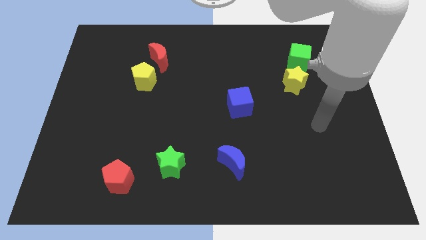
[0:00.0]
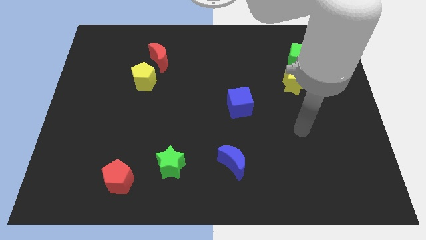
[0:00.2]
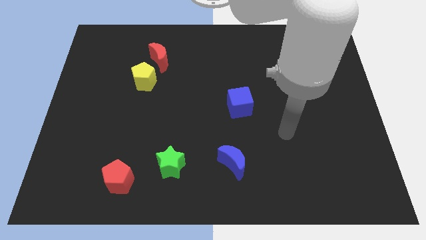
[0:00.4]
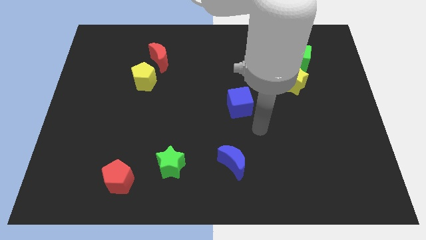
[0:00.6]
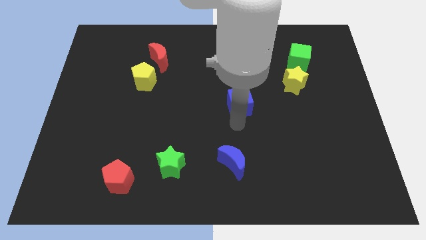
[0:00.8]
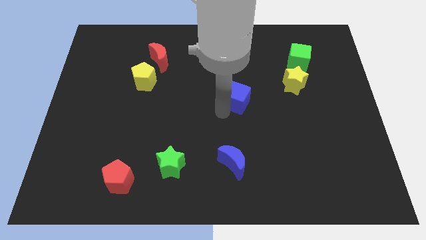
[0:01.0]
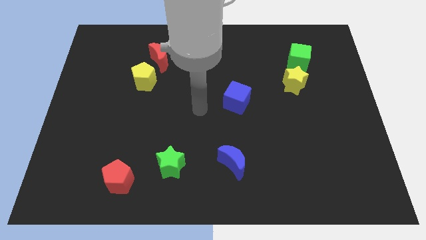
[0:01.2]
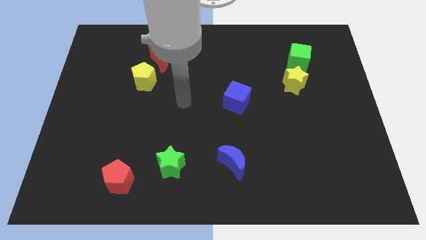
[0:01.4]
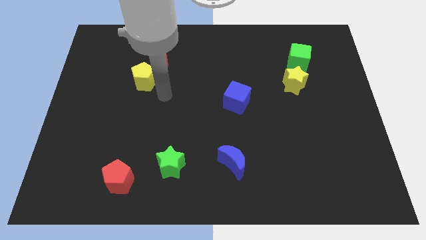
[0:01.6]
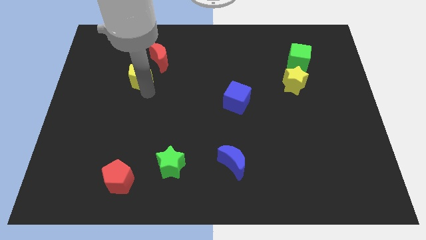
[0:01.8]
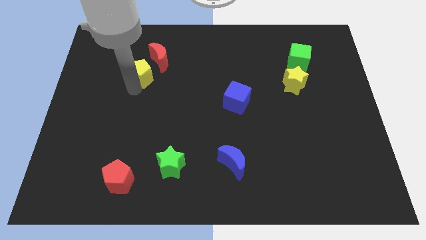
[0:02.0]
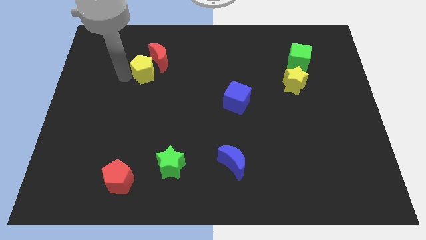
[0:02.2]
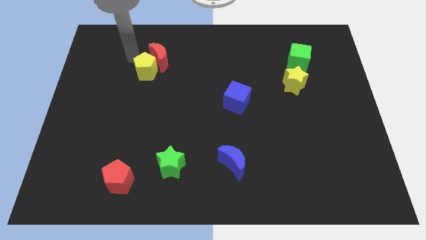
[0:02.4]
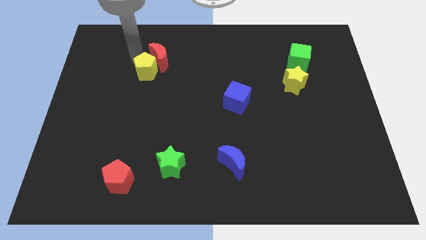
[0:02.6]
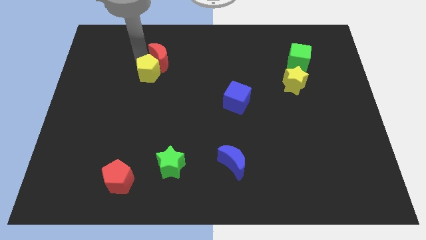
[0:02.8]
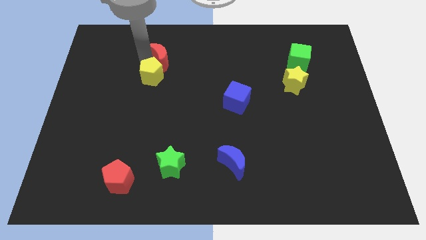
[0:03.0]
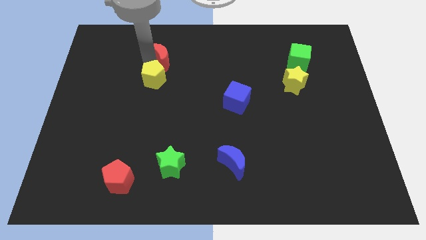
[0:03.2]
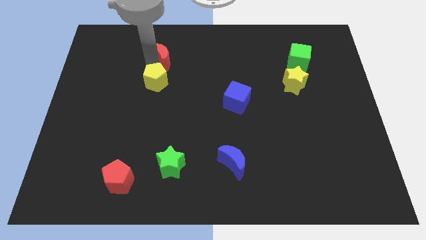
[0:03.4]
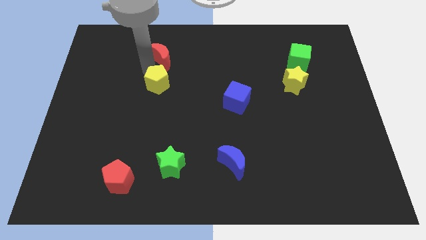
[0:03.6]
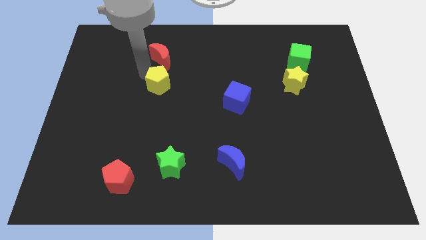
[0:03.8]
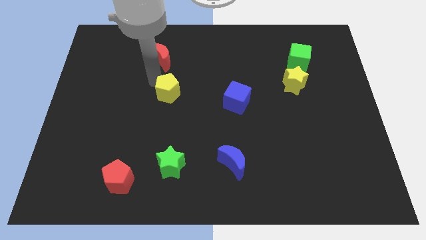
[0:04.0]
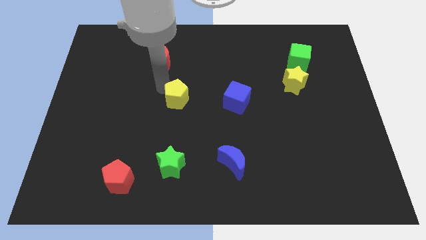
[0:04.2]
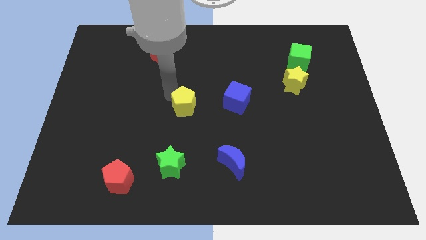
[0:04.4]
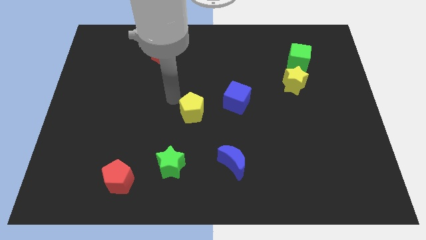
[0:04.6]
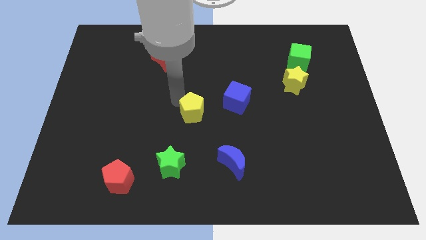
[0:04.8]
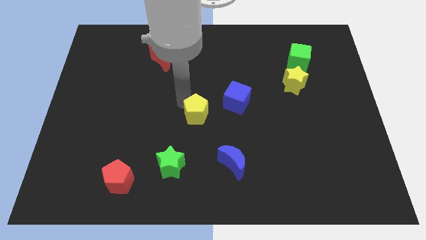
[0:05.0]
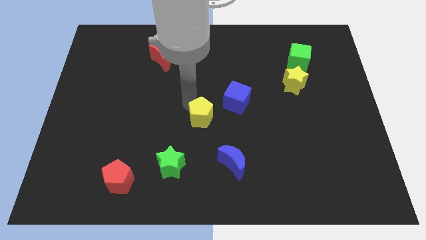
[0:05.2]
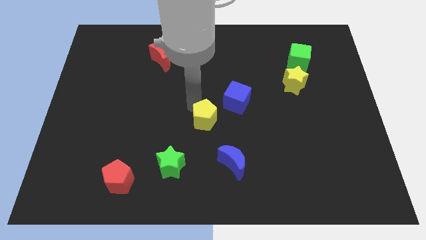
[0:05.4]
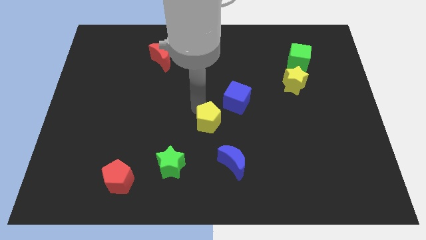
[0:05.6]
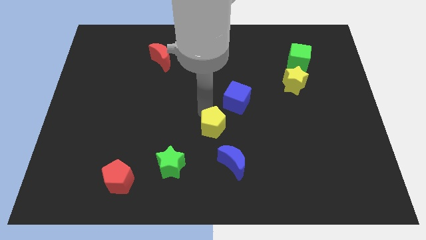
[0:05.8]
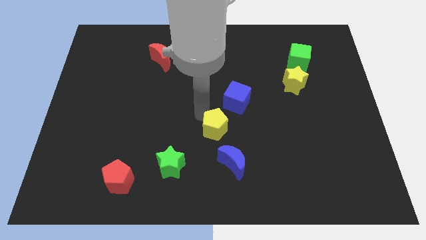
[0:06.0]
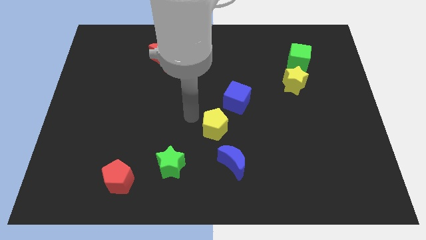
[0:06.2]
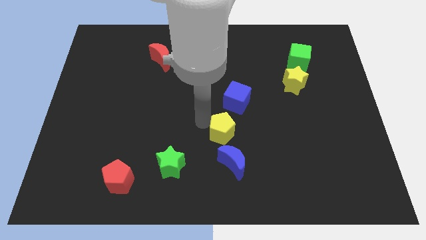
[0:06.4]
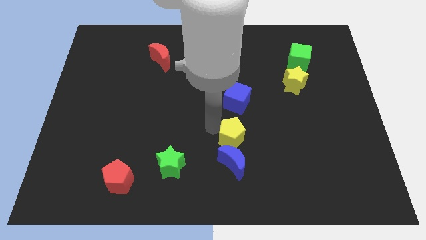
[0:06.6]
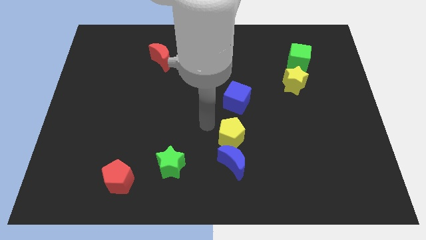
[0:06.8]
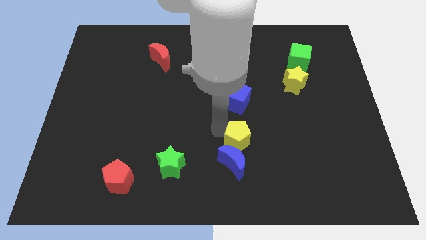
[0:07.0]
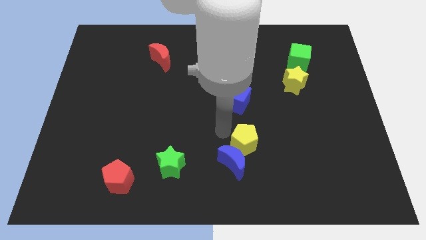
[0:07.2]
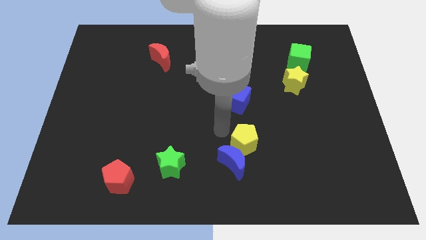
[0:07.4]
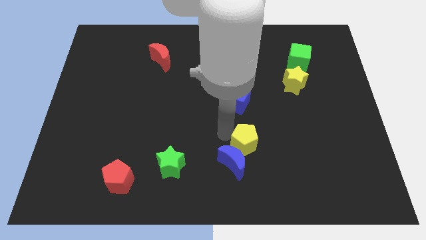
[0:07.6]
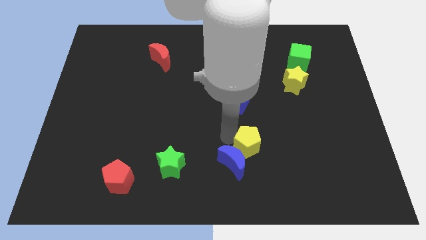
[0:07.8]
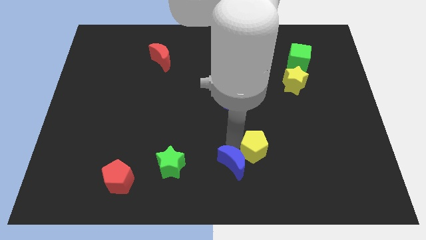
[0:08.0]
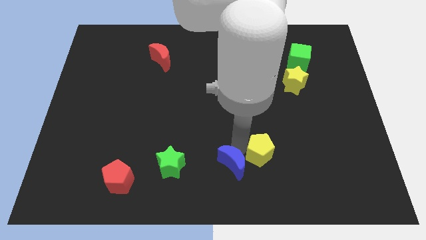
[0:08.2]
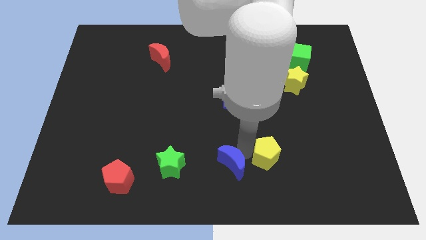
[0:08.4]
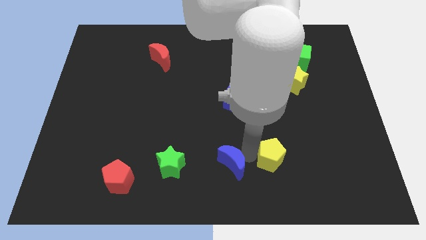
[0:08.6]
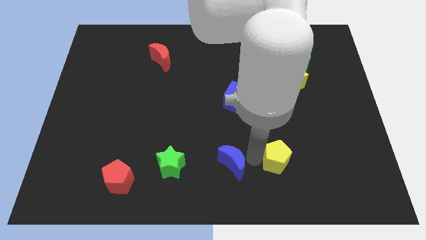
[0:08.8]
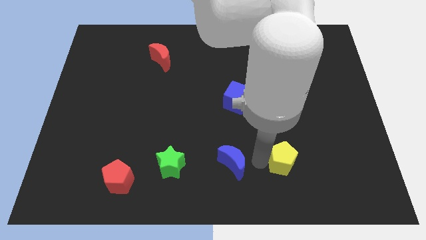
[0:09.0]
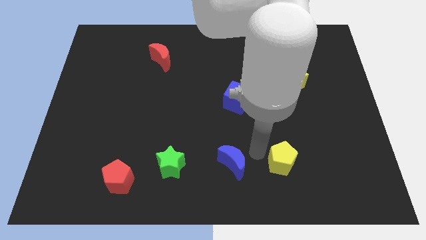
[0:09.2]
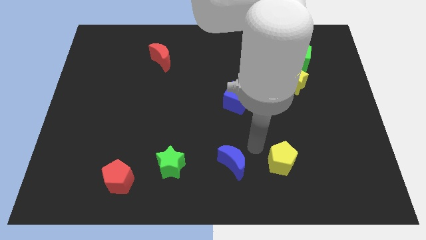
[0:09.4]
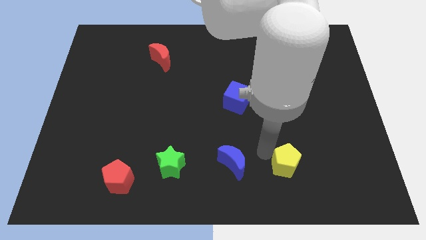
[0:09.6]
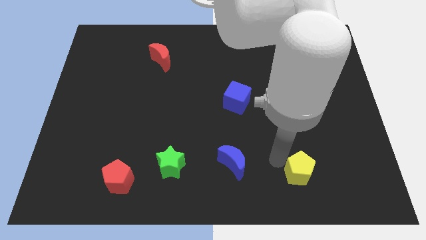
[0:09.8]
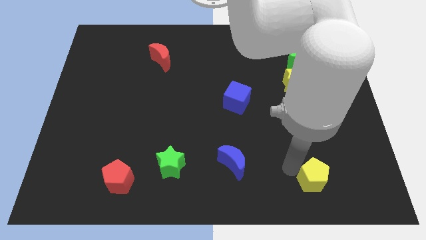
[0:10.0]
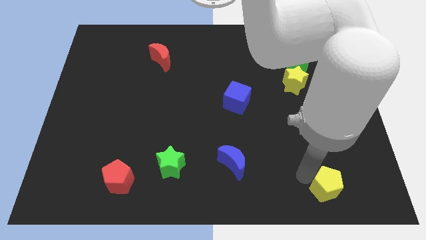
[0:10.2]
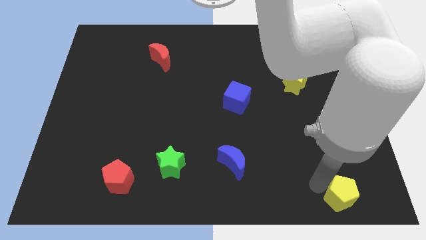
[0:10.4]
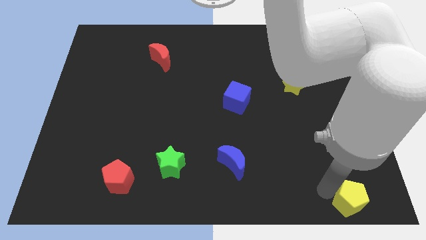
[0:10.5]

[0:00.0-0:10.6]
push the yellow pentagon to the bottom right corner

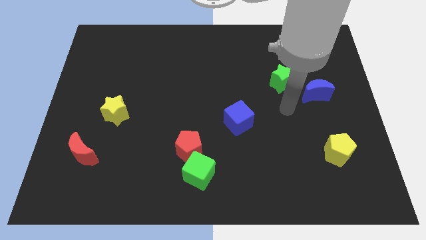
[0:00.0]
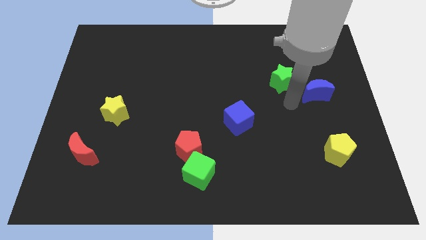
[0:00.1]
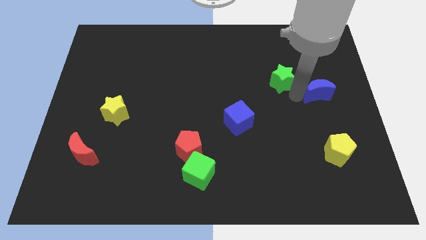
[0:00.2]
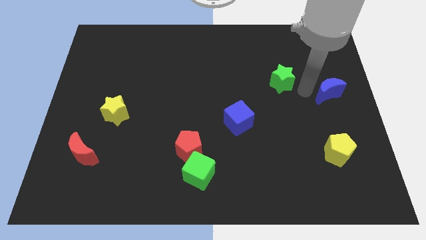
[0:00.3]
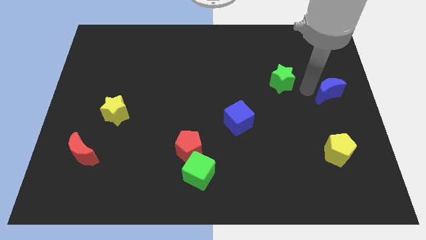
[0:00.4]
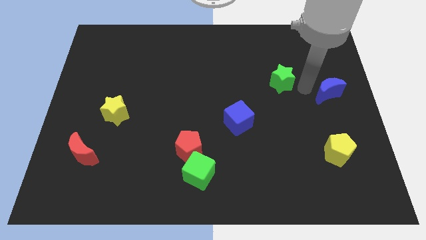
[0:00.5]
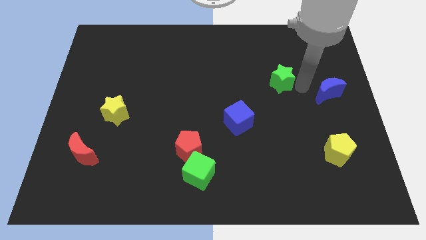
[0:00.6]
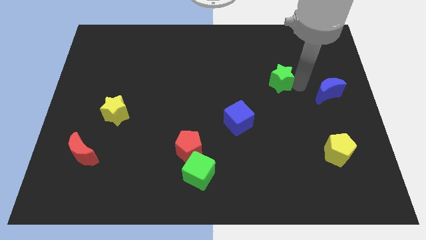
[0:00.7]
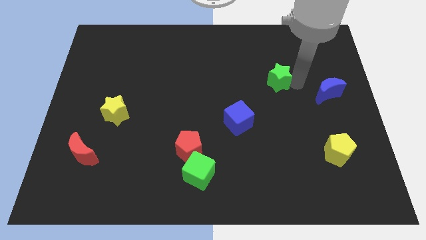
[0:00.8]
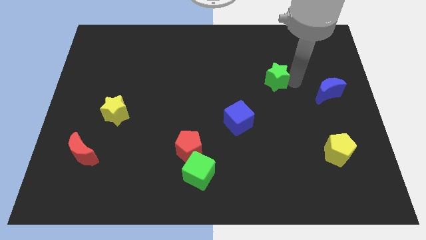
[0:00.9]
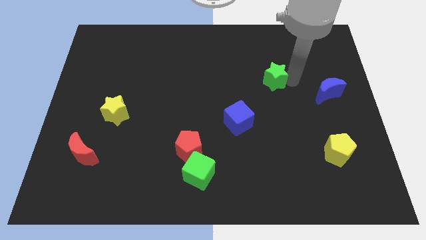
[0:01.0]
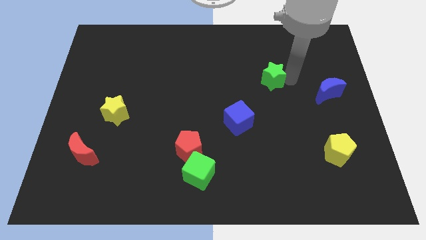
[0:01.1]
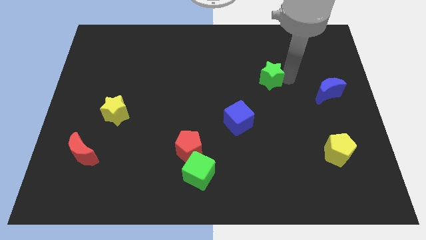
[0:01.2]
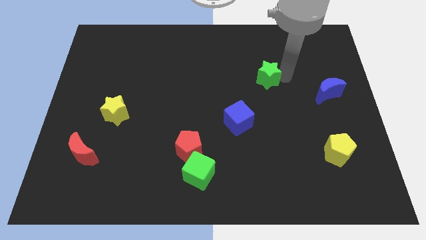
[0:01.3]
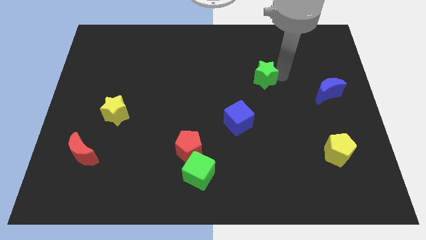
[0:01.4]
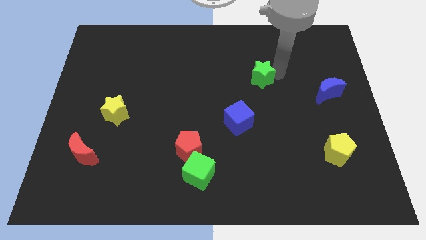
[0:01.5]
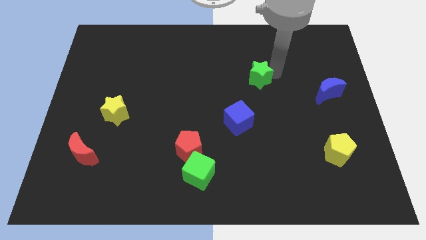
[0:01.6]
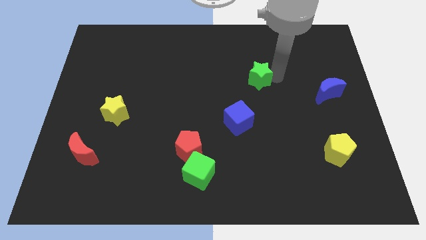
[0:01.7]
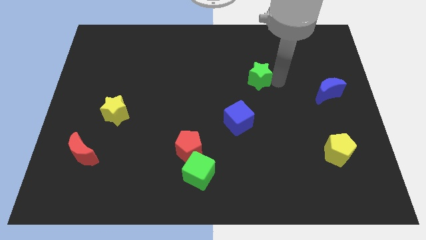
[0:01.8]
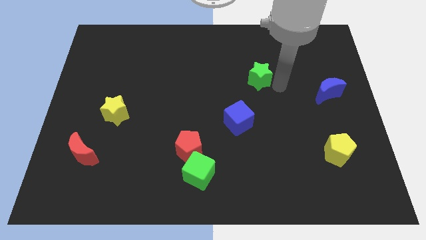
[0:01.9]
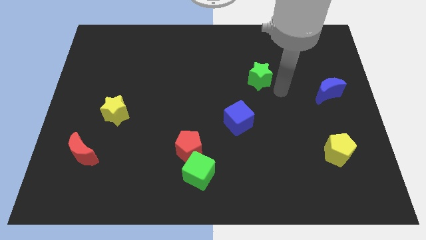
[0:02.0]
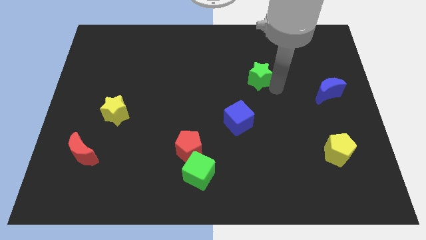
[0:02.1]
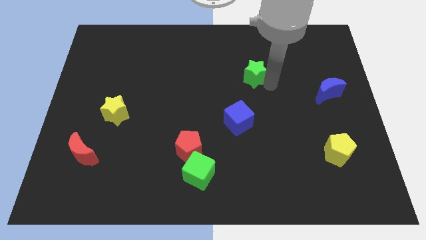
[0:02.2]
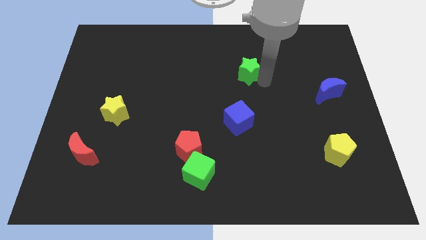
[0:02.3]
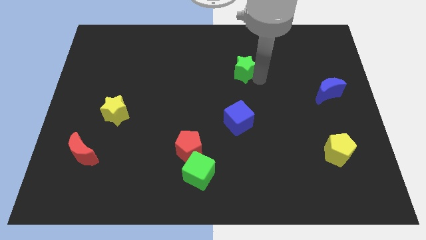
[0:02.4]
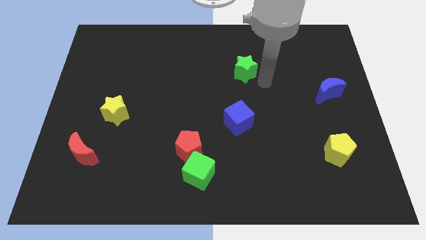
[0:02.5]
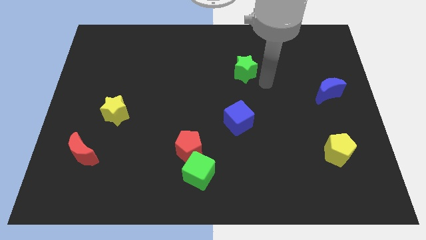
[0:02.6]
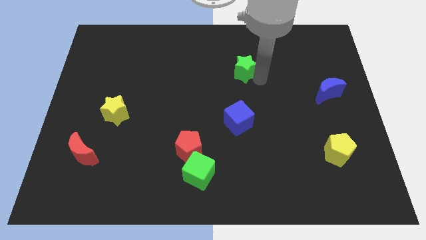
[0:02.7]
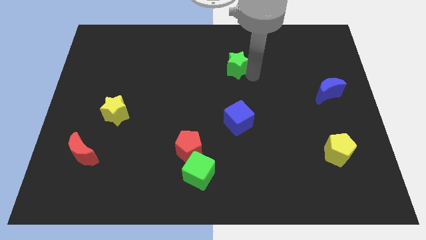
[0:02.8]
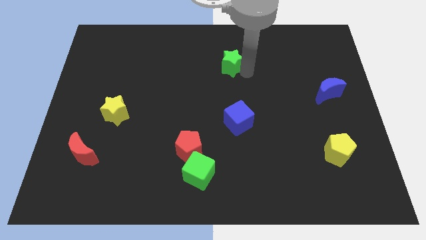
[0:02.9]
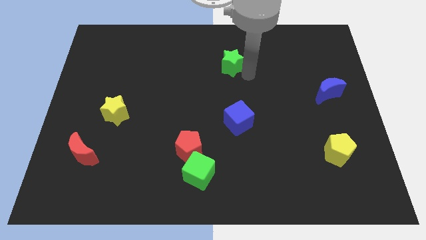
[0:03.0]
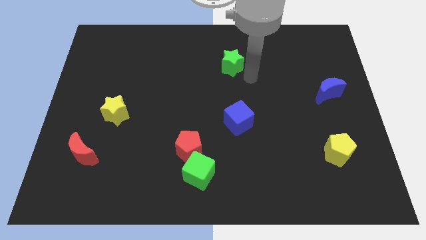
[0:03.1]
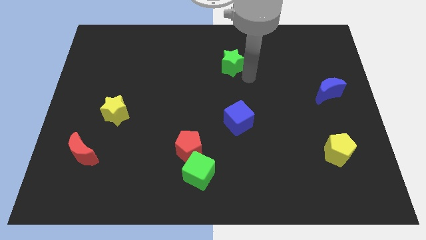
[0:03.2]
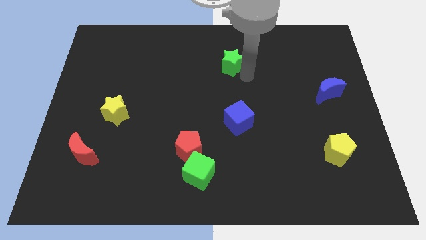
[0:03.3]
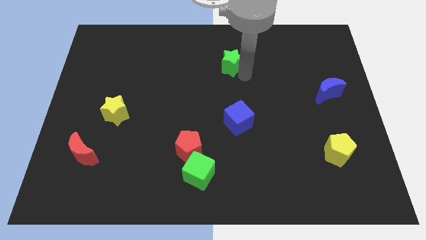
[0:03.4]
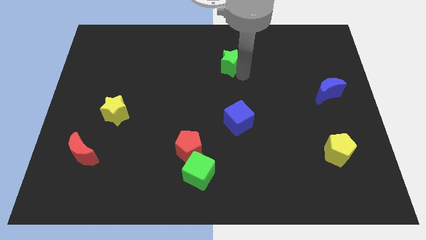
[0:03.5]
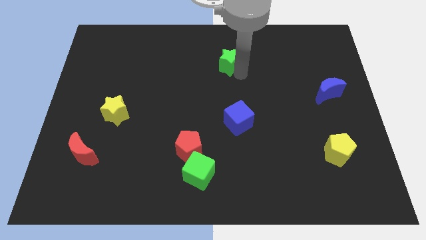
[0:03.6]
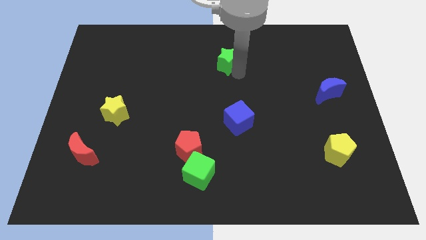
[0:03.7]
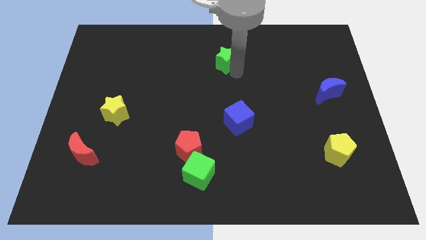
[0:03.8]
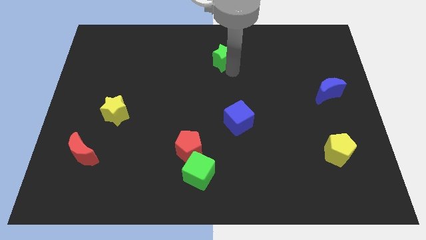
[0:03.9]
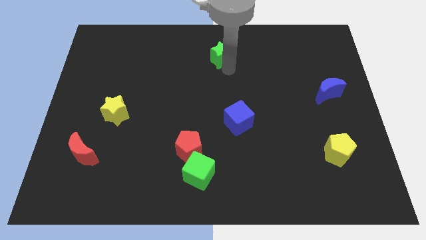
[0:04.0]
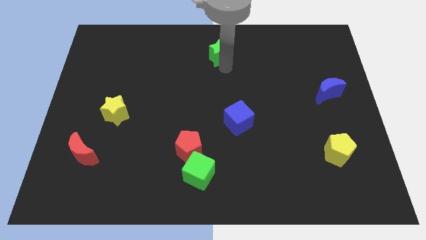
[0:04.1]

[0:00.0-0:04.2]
move the green star to the top
